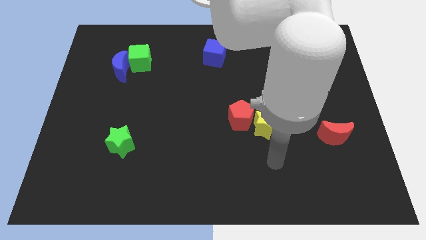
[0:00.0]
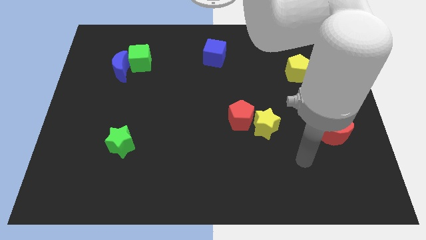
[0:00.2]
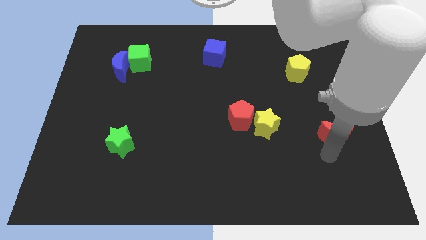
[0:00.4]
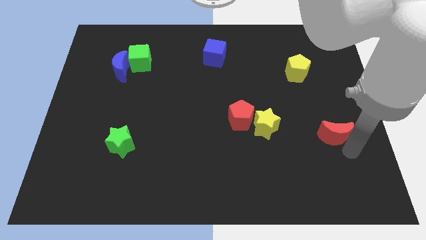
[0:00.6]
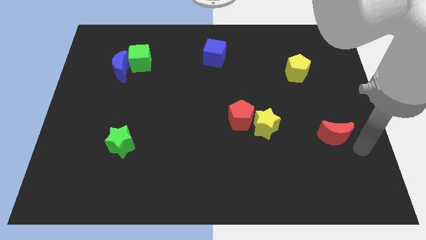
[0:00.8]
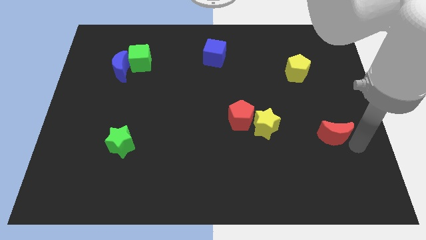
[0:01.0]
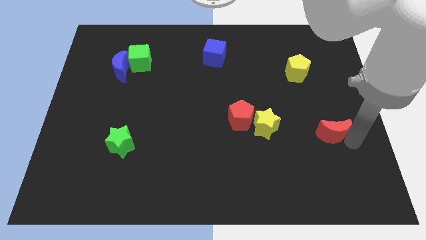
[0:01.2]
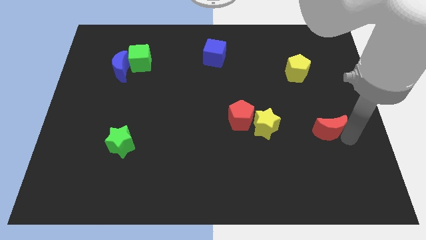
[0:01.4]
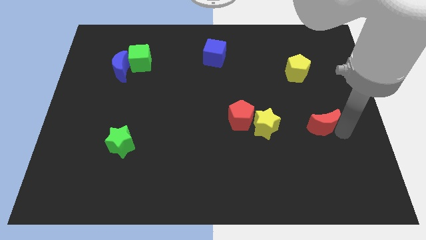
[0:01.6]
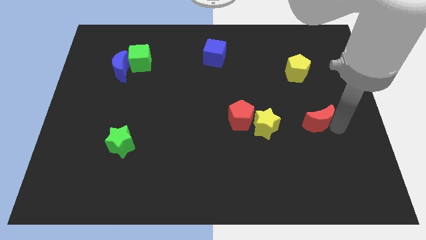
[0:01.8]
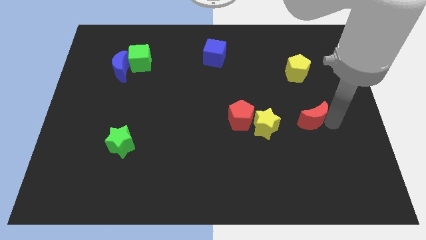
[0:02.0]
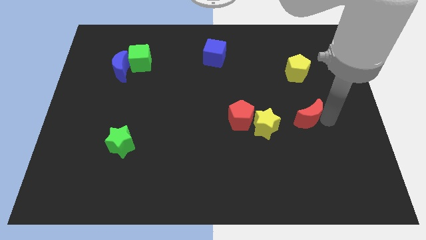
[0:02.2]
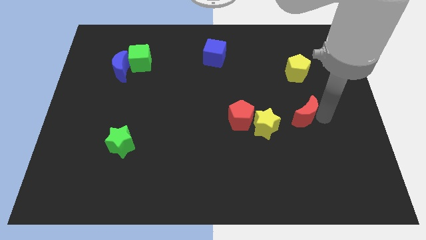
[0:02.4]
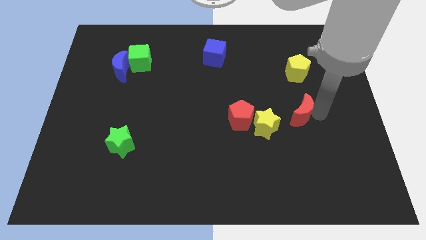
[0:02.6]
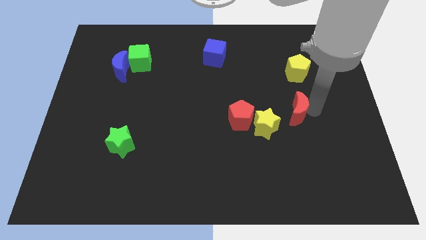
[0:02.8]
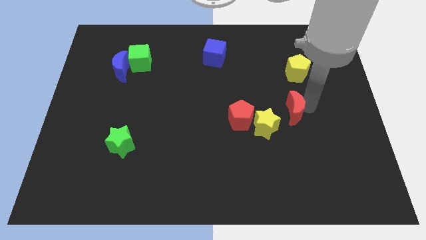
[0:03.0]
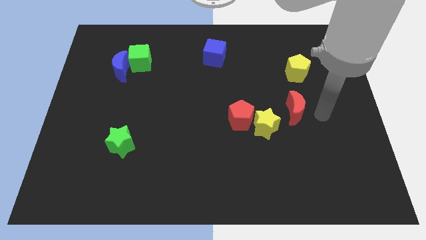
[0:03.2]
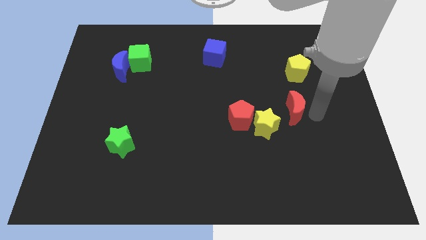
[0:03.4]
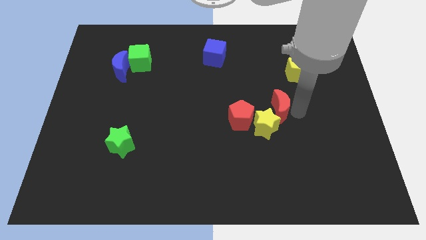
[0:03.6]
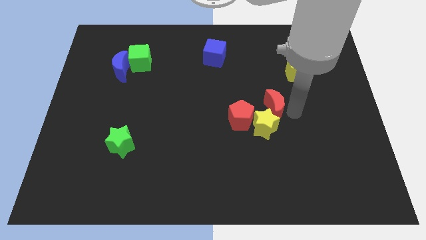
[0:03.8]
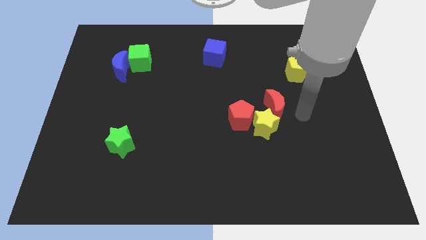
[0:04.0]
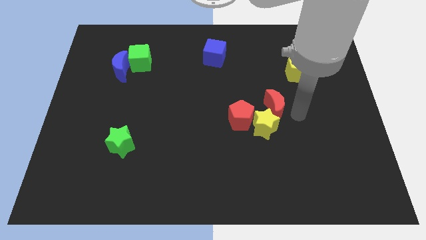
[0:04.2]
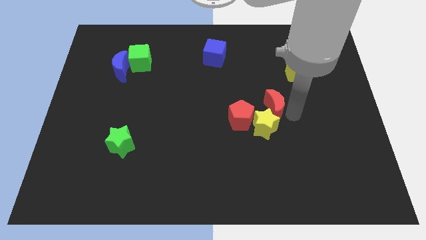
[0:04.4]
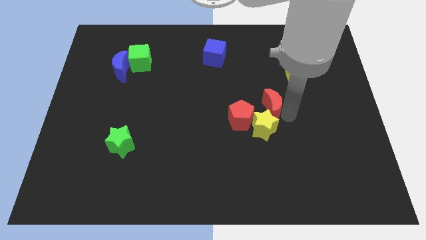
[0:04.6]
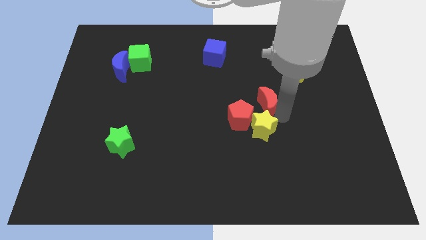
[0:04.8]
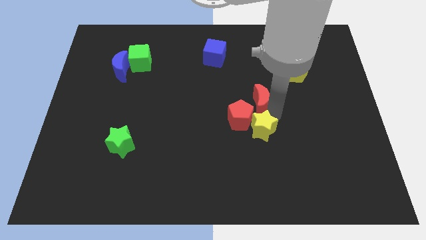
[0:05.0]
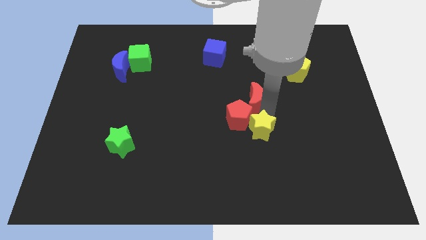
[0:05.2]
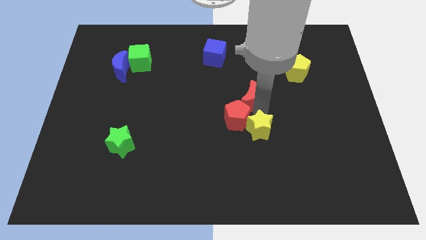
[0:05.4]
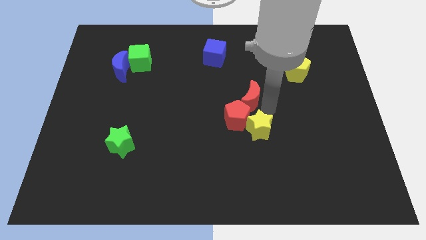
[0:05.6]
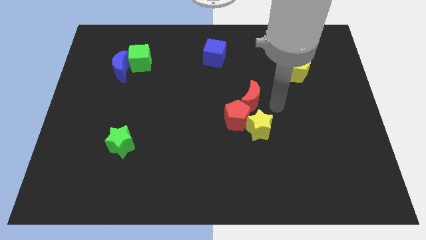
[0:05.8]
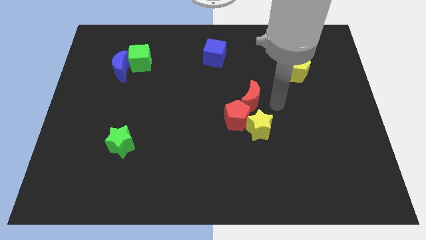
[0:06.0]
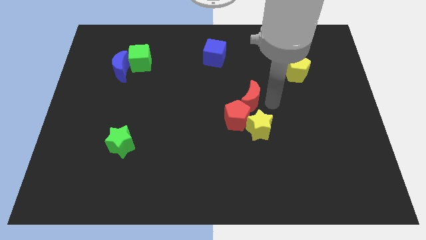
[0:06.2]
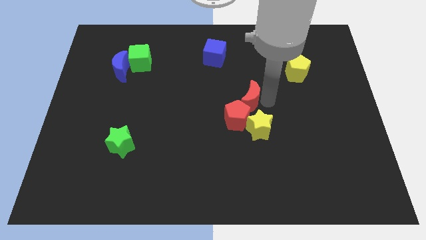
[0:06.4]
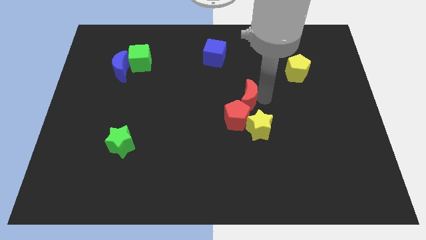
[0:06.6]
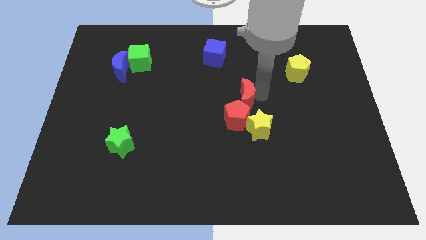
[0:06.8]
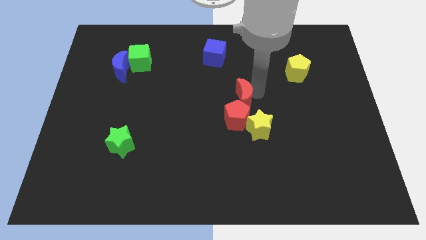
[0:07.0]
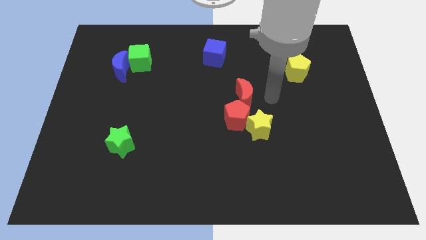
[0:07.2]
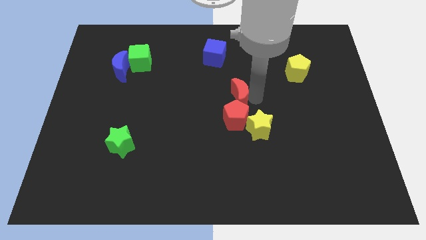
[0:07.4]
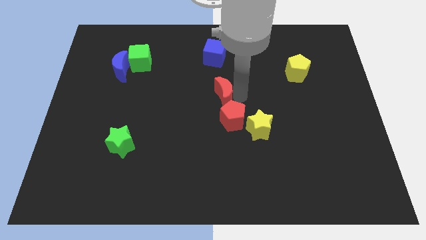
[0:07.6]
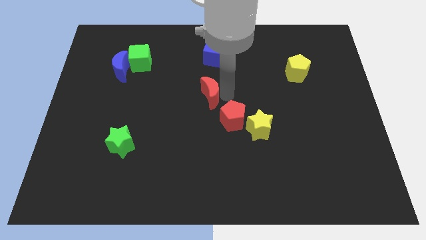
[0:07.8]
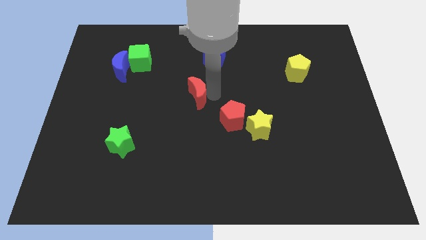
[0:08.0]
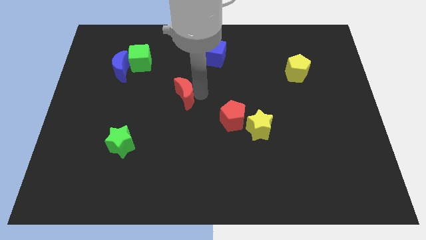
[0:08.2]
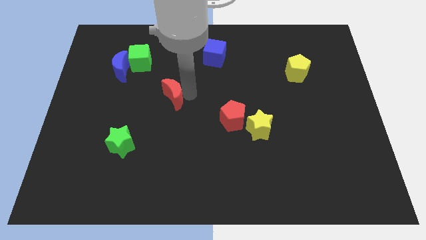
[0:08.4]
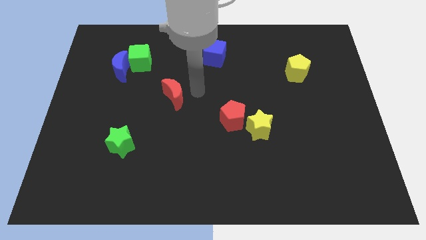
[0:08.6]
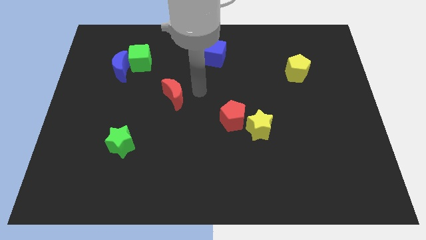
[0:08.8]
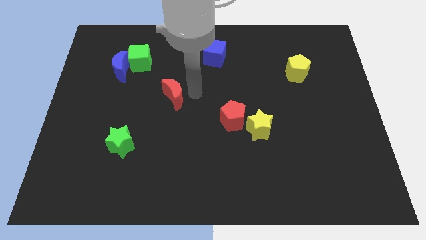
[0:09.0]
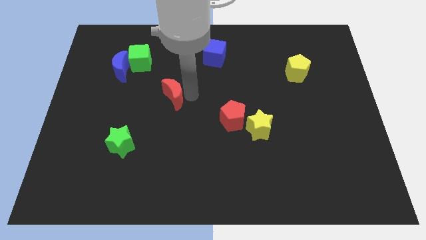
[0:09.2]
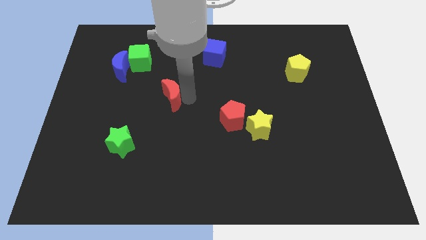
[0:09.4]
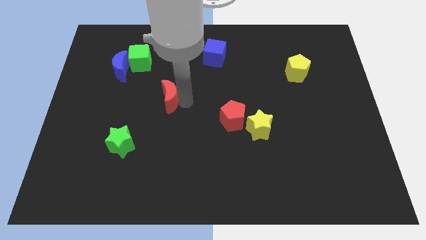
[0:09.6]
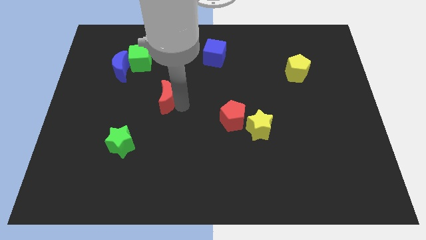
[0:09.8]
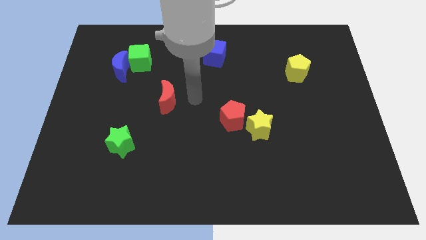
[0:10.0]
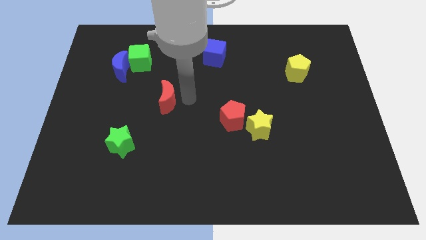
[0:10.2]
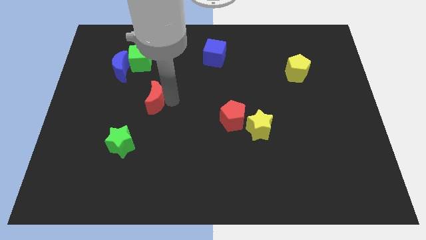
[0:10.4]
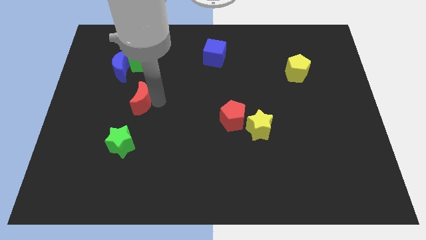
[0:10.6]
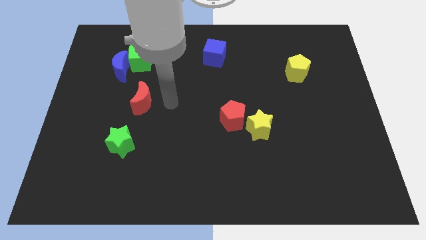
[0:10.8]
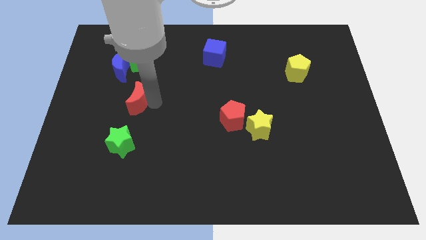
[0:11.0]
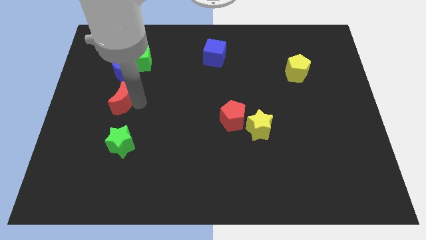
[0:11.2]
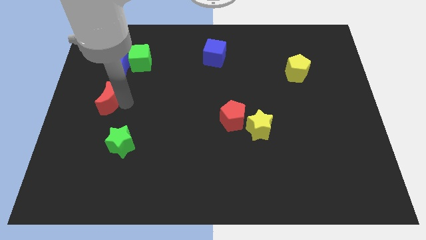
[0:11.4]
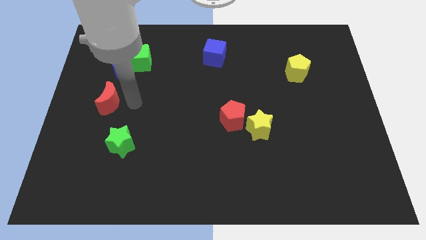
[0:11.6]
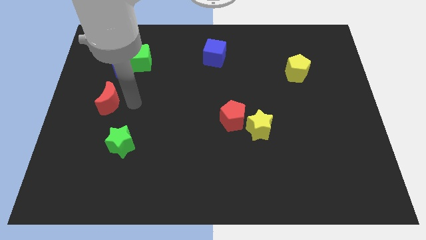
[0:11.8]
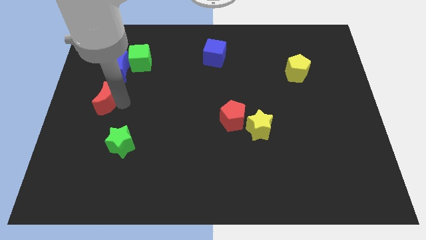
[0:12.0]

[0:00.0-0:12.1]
slide the red moon to the left side of the board

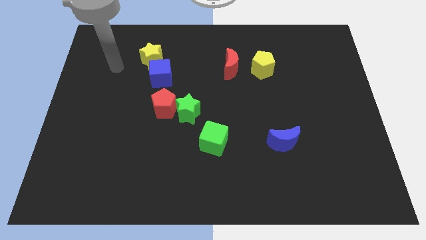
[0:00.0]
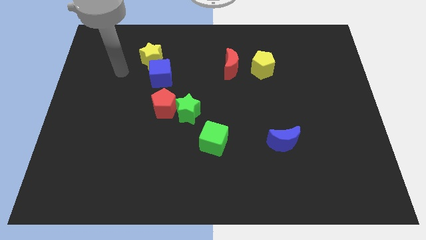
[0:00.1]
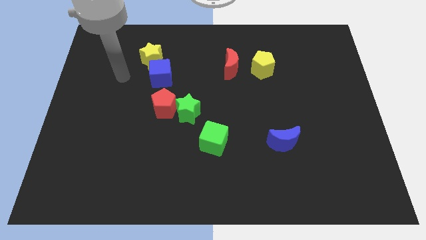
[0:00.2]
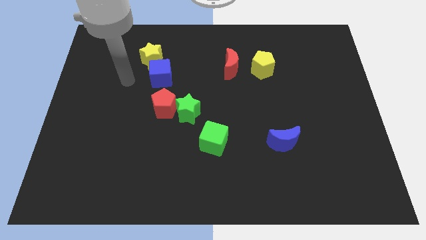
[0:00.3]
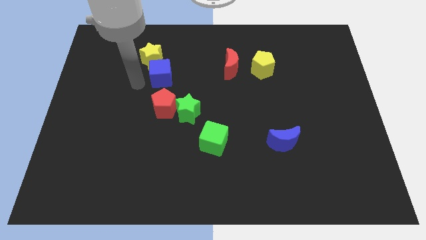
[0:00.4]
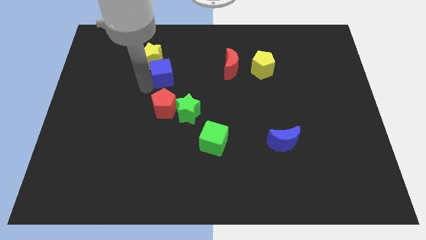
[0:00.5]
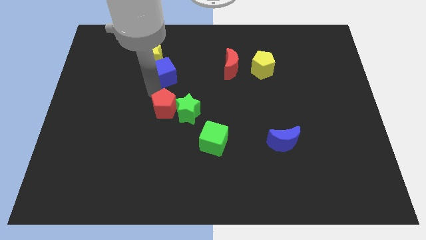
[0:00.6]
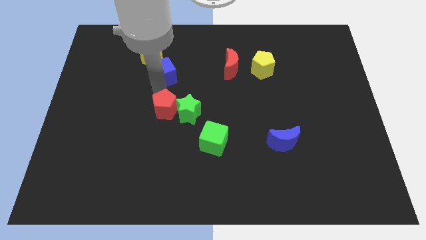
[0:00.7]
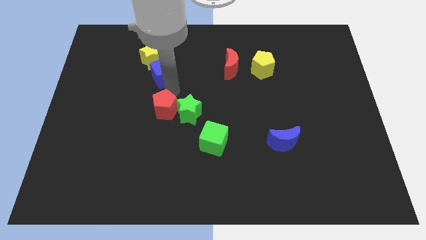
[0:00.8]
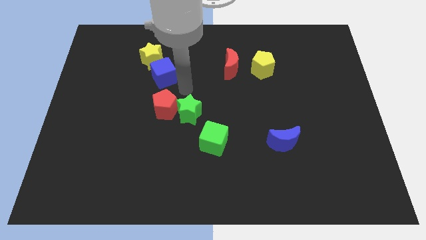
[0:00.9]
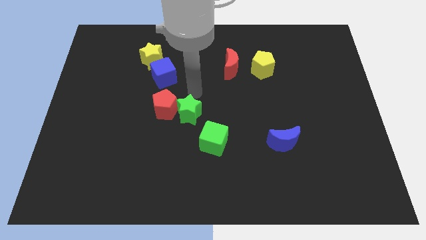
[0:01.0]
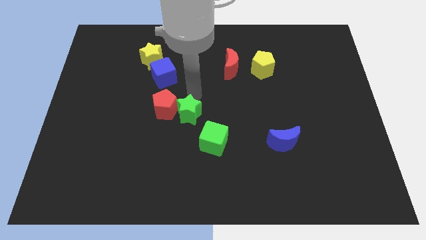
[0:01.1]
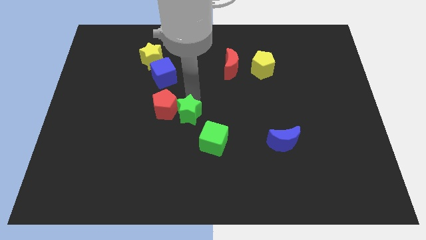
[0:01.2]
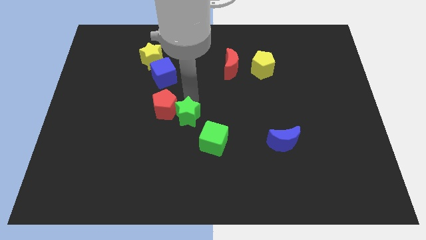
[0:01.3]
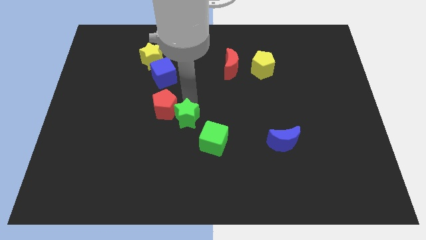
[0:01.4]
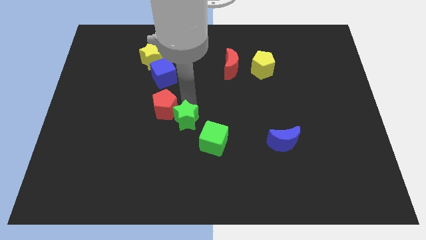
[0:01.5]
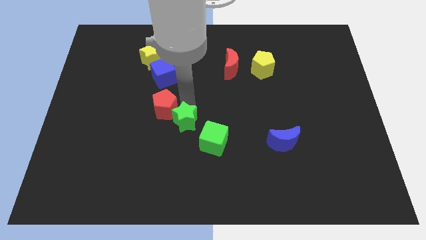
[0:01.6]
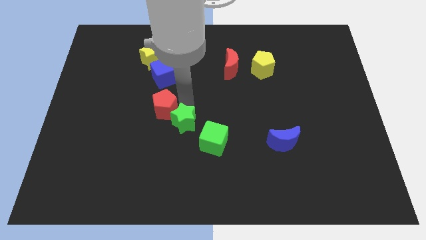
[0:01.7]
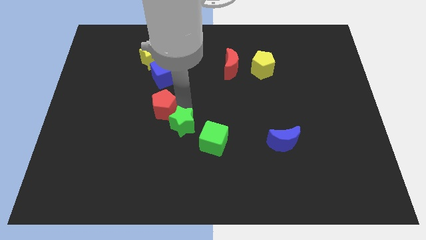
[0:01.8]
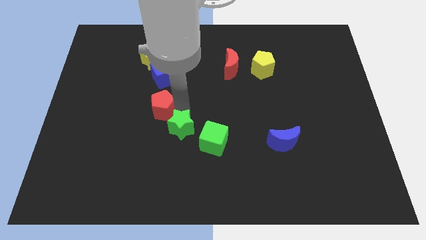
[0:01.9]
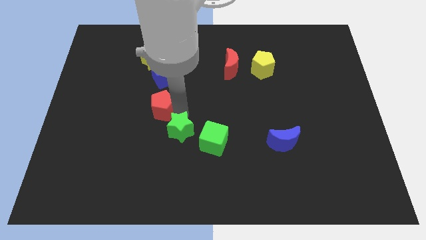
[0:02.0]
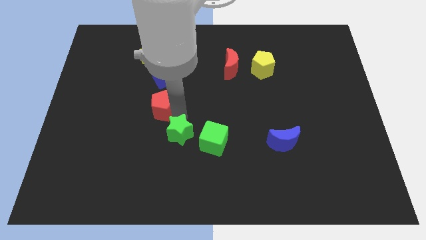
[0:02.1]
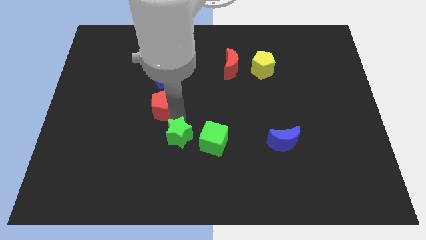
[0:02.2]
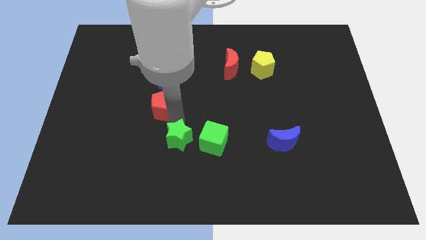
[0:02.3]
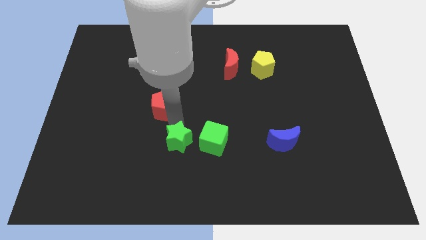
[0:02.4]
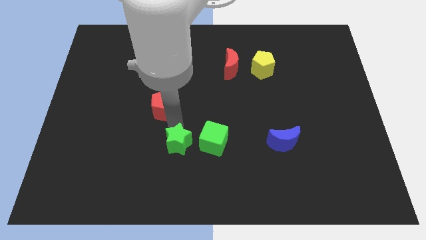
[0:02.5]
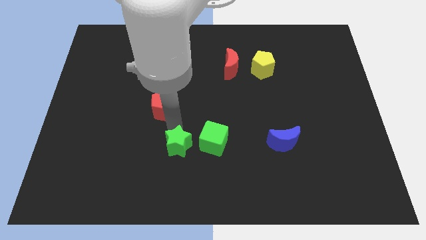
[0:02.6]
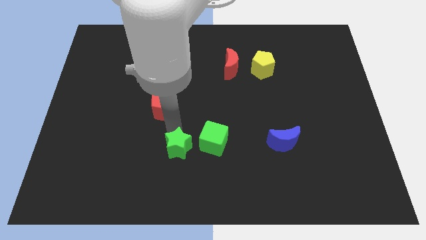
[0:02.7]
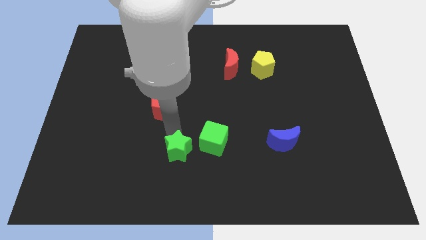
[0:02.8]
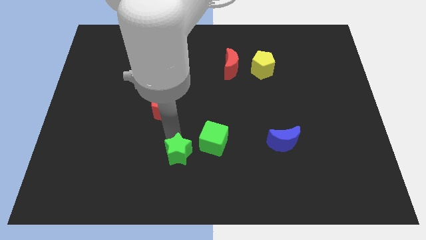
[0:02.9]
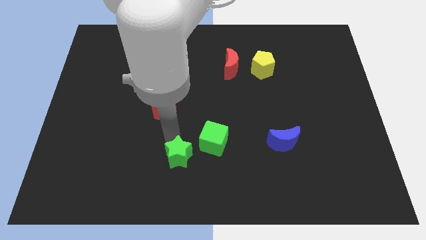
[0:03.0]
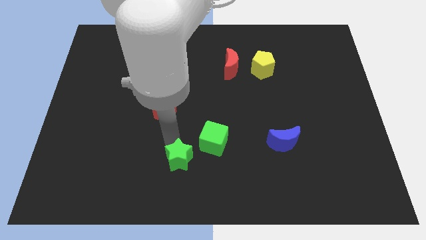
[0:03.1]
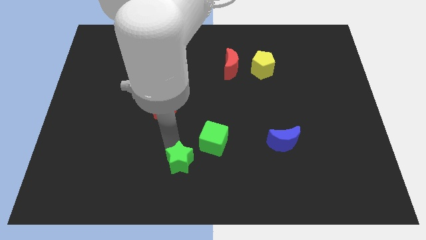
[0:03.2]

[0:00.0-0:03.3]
push the green star to the bottom side
